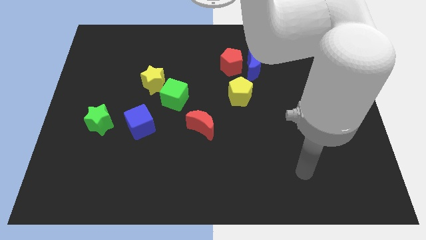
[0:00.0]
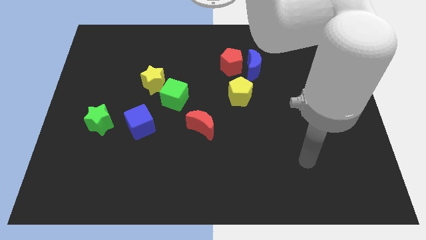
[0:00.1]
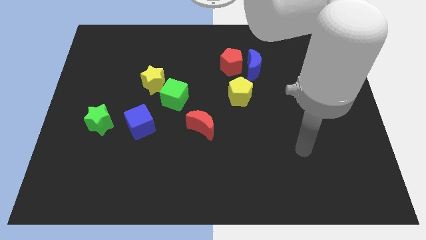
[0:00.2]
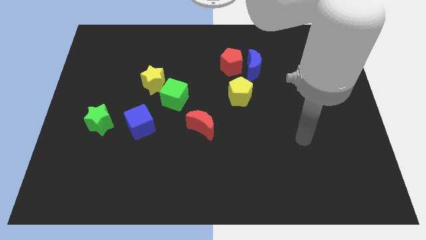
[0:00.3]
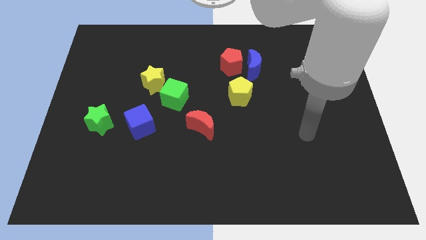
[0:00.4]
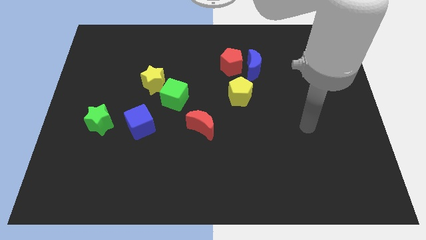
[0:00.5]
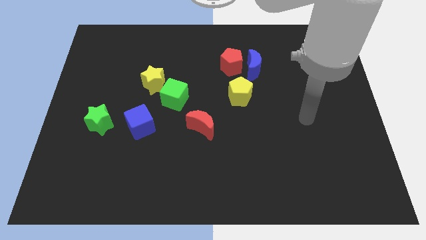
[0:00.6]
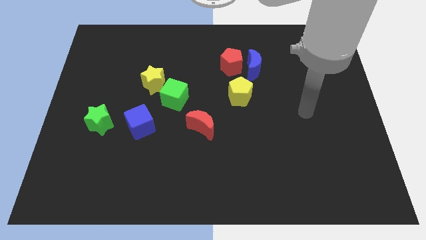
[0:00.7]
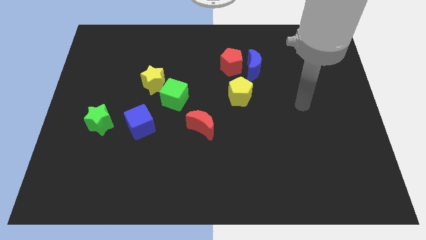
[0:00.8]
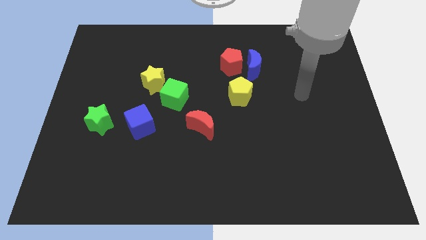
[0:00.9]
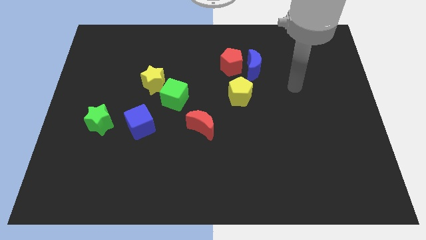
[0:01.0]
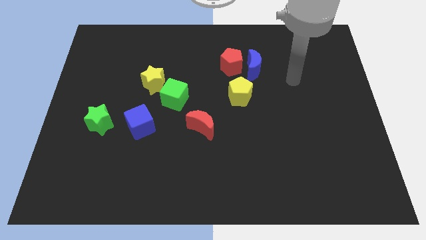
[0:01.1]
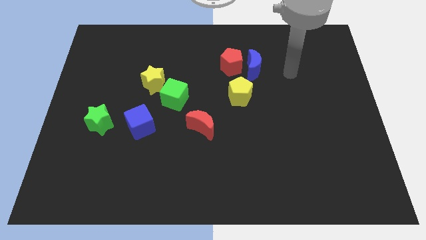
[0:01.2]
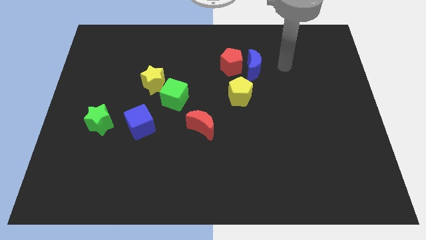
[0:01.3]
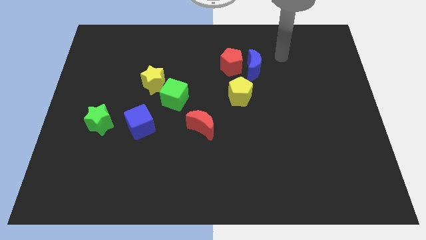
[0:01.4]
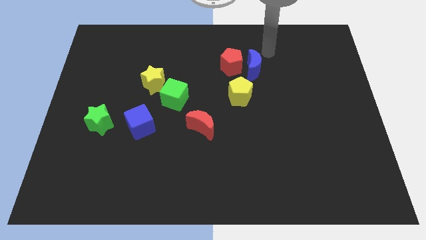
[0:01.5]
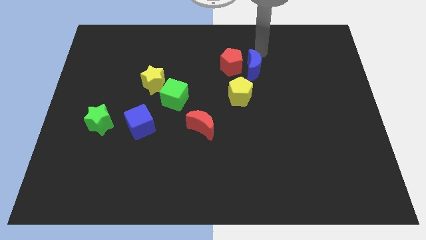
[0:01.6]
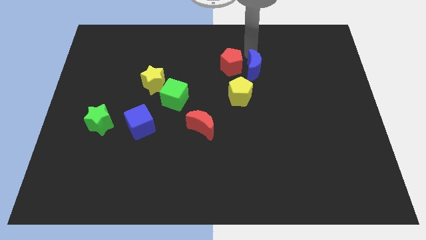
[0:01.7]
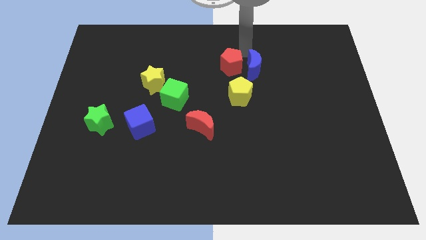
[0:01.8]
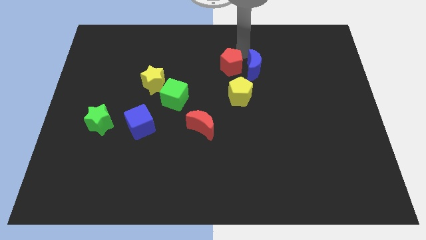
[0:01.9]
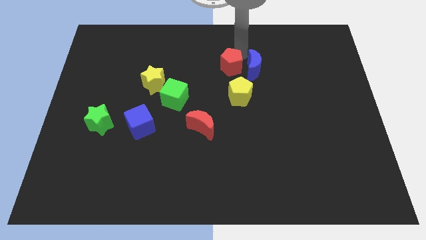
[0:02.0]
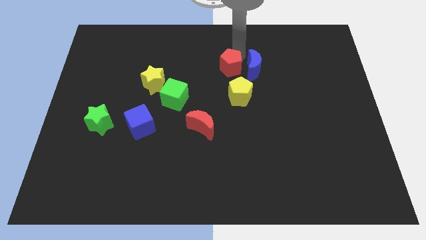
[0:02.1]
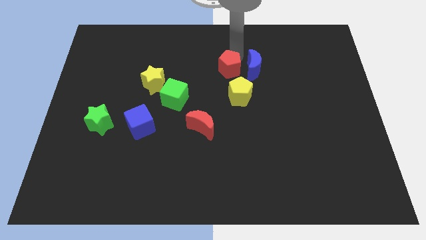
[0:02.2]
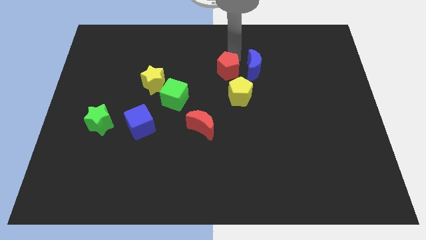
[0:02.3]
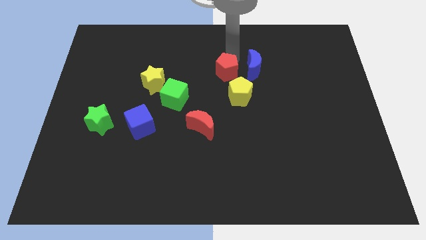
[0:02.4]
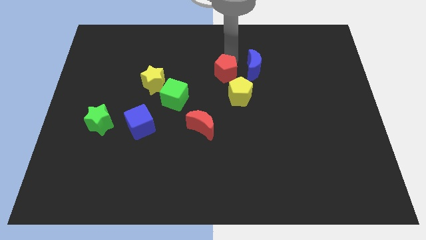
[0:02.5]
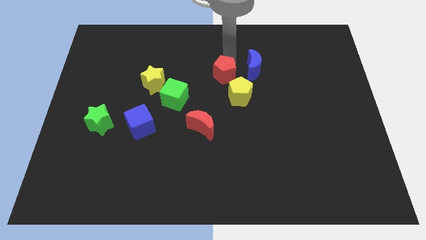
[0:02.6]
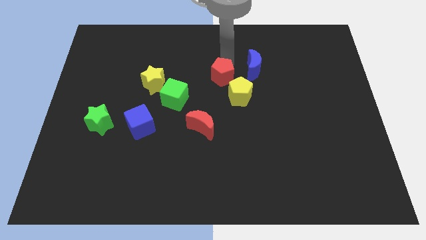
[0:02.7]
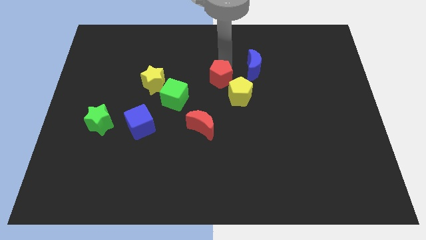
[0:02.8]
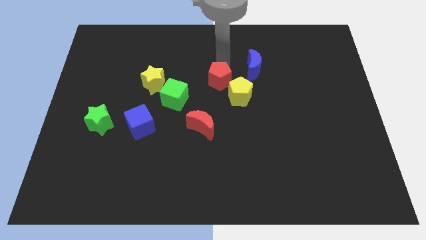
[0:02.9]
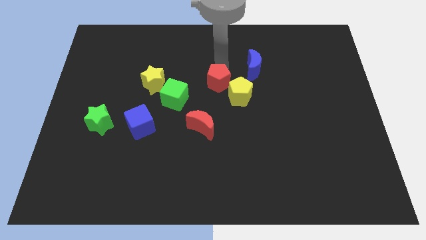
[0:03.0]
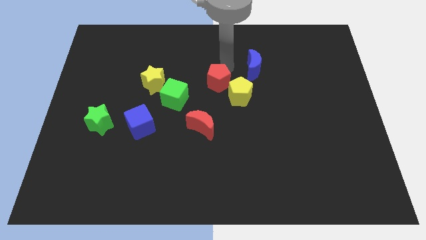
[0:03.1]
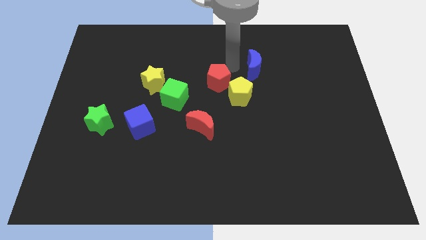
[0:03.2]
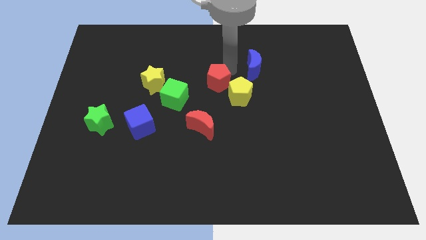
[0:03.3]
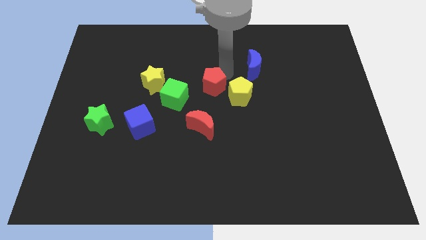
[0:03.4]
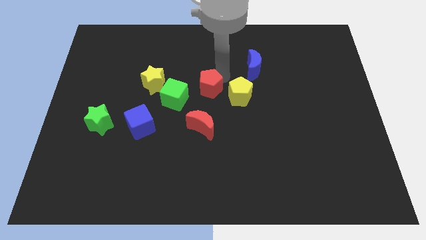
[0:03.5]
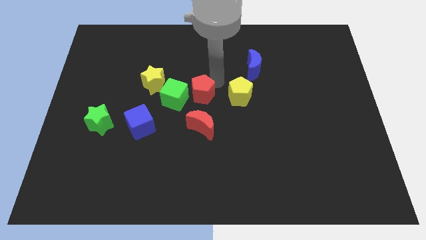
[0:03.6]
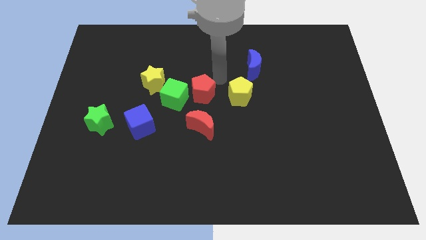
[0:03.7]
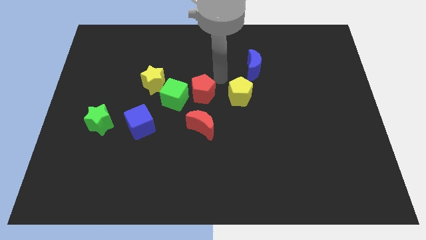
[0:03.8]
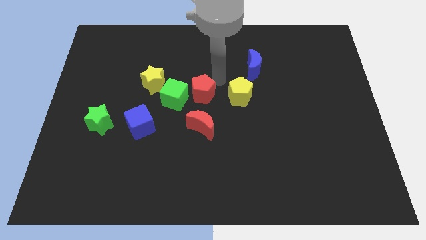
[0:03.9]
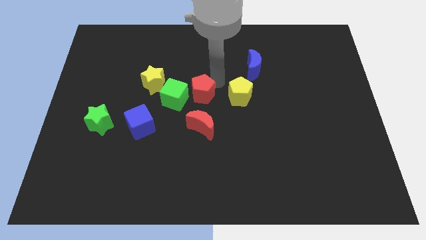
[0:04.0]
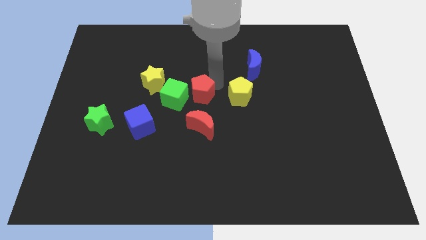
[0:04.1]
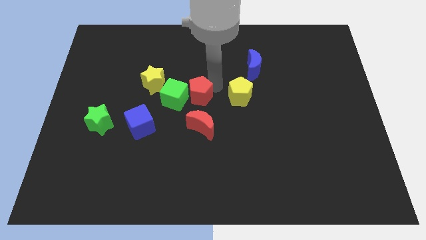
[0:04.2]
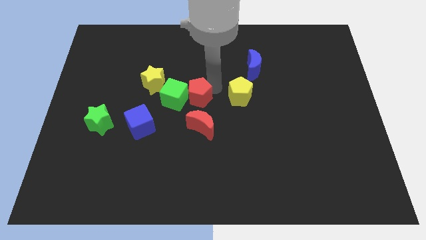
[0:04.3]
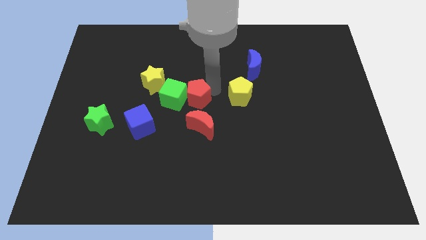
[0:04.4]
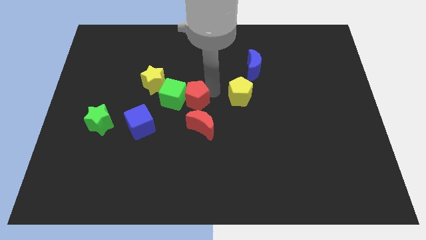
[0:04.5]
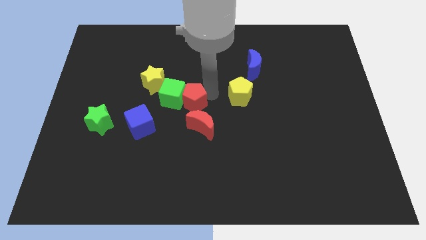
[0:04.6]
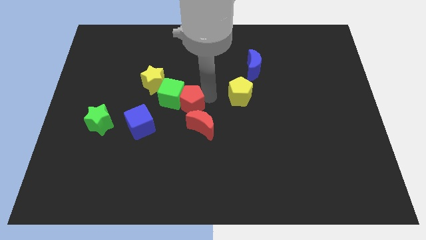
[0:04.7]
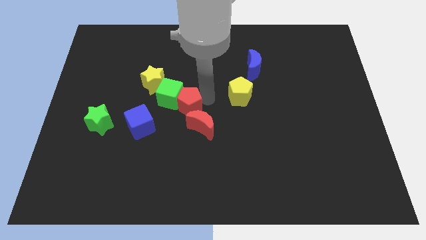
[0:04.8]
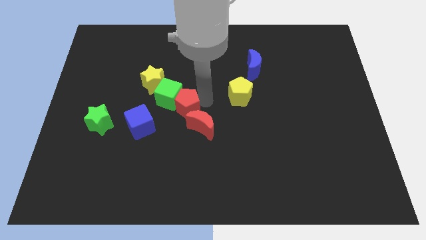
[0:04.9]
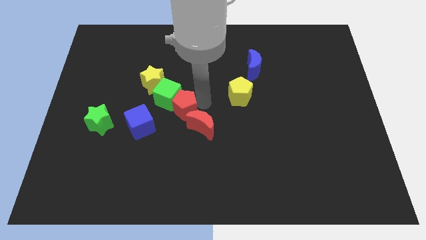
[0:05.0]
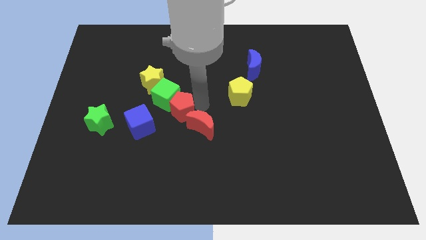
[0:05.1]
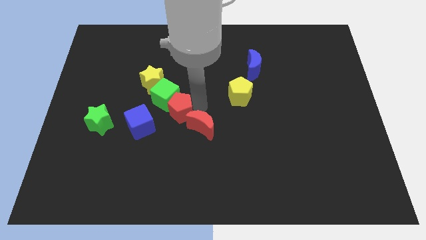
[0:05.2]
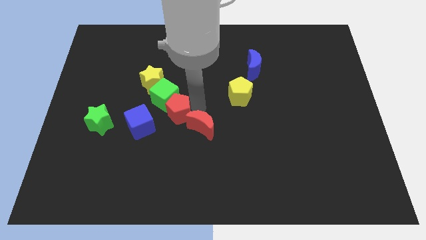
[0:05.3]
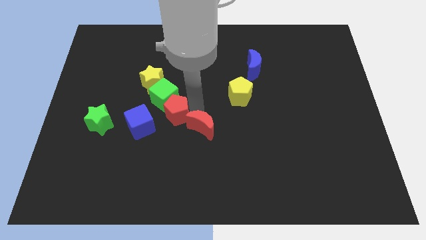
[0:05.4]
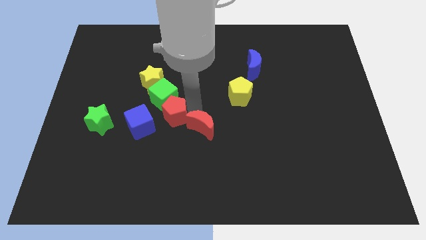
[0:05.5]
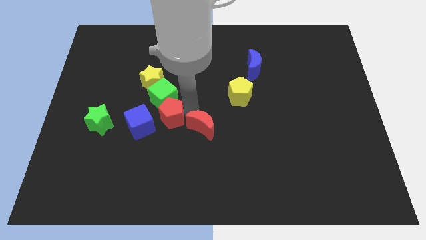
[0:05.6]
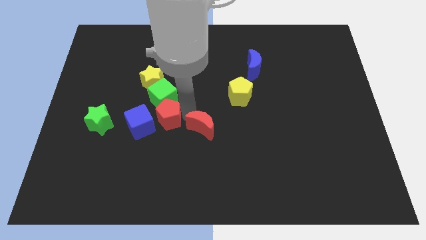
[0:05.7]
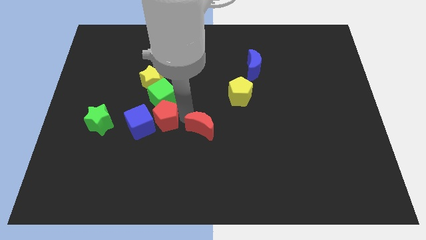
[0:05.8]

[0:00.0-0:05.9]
slide the red pentagon close to the blue cube

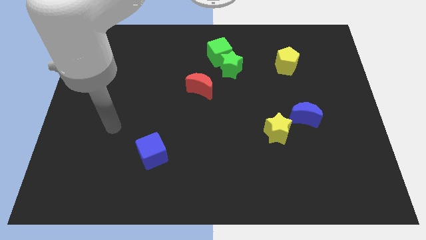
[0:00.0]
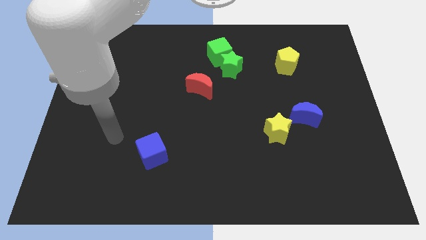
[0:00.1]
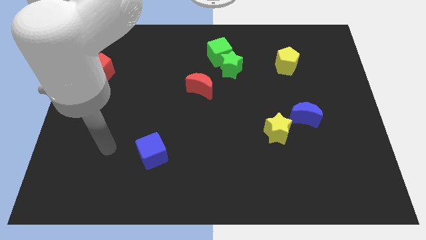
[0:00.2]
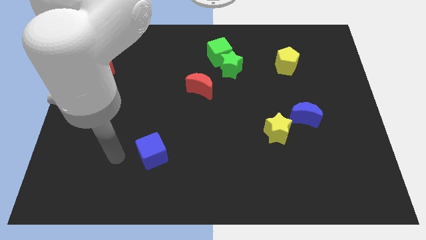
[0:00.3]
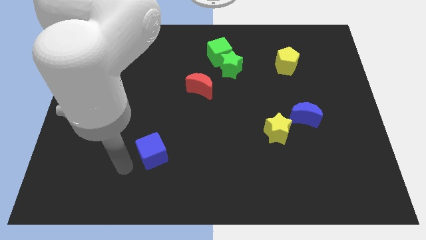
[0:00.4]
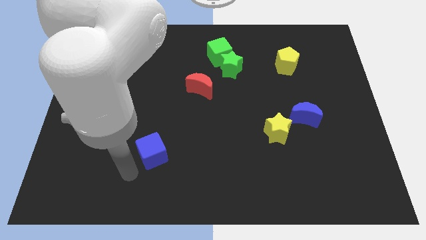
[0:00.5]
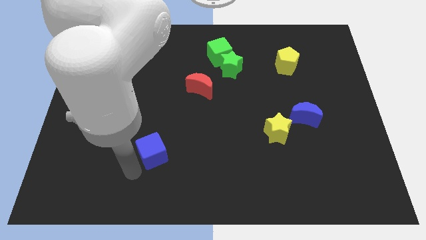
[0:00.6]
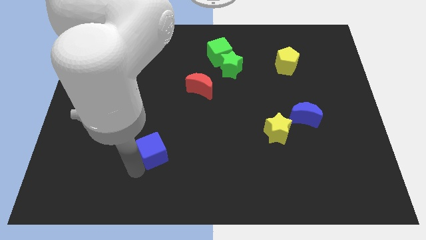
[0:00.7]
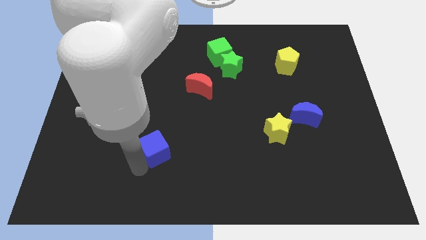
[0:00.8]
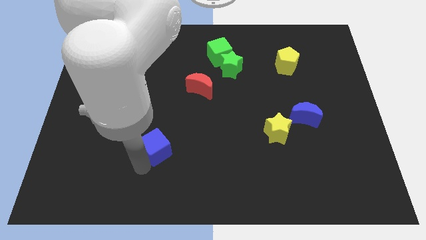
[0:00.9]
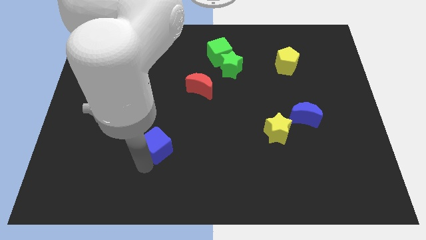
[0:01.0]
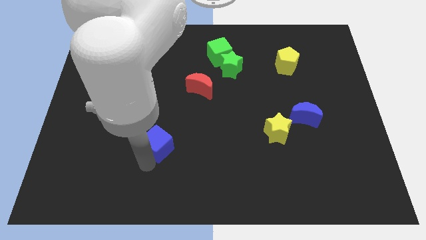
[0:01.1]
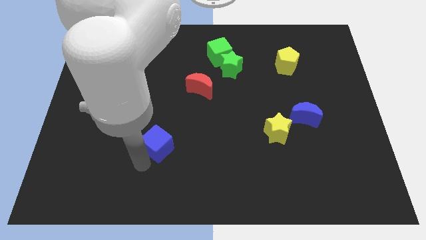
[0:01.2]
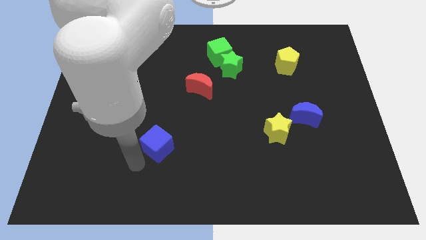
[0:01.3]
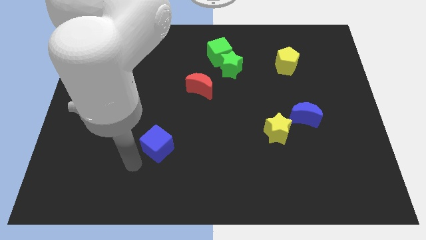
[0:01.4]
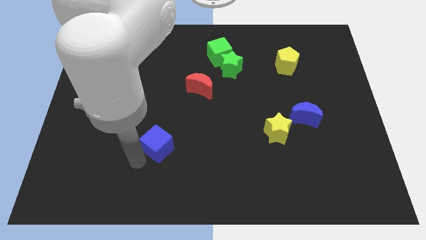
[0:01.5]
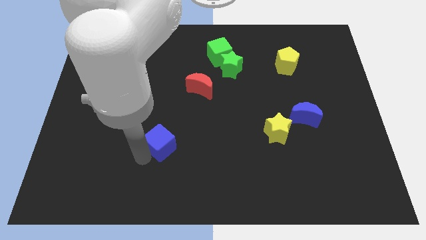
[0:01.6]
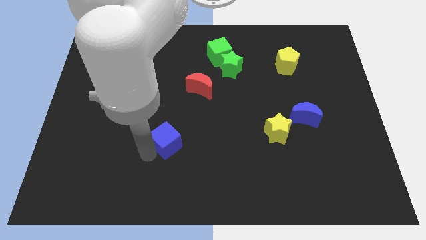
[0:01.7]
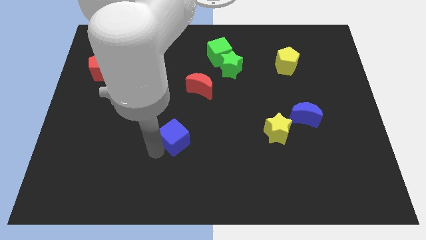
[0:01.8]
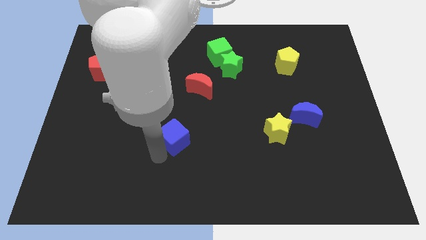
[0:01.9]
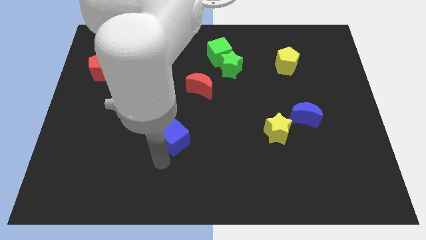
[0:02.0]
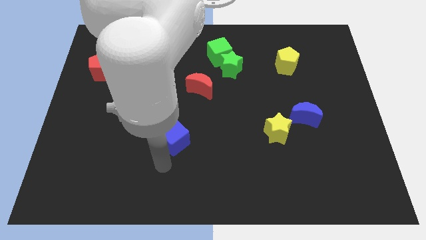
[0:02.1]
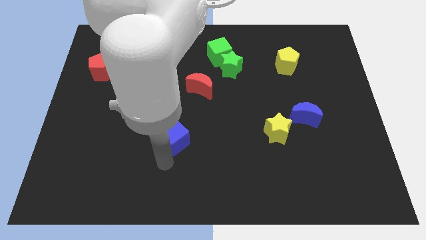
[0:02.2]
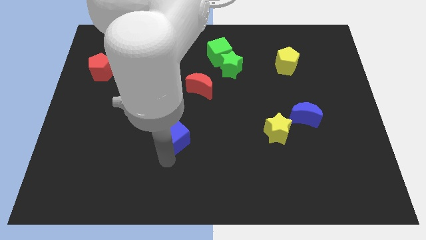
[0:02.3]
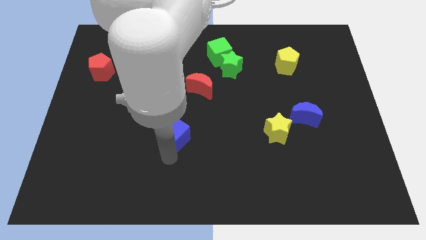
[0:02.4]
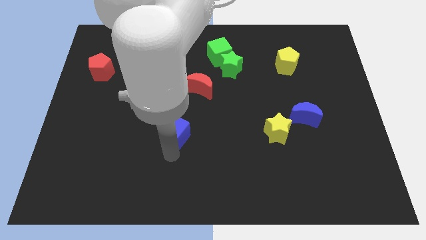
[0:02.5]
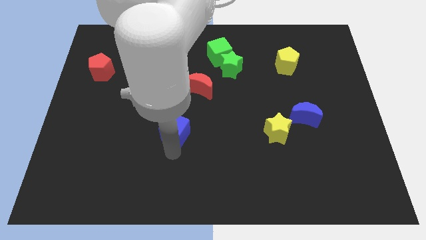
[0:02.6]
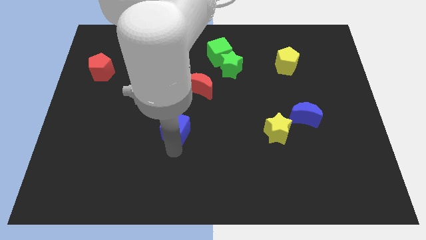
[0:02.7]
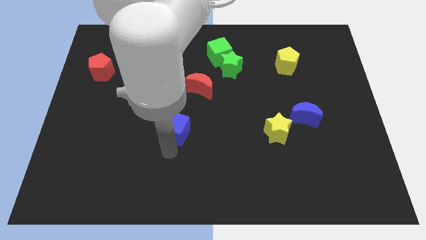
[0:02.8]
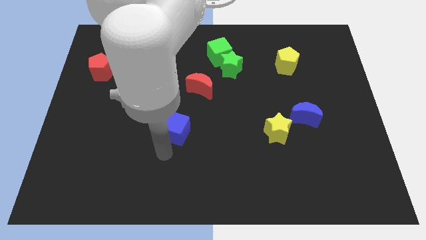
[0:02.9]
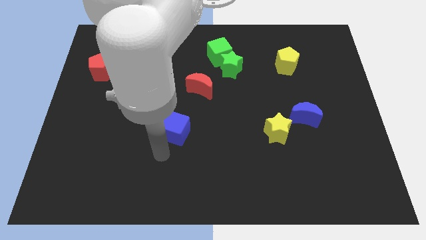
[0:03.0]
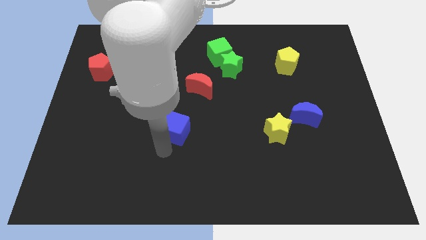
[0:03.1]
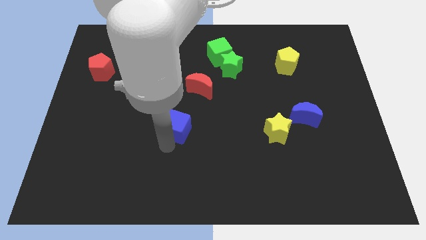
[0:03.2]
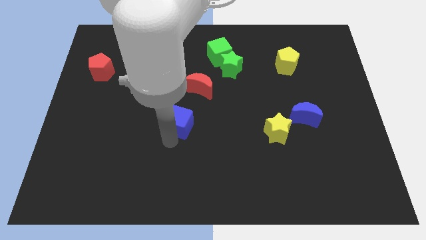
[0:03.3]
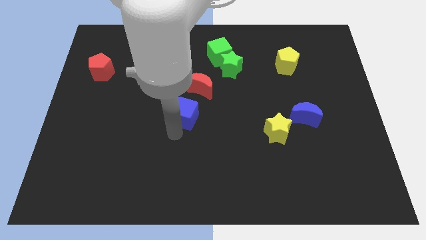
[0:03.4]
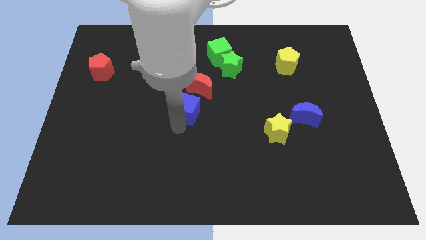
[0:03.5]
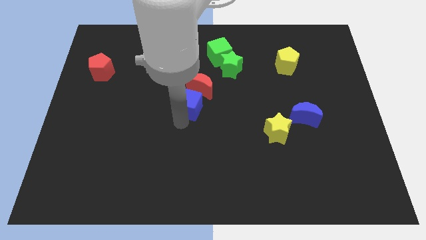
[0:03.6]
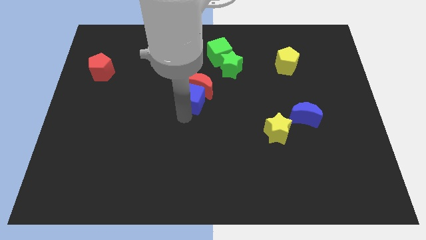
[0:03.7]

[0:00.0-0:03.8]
put the blue cube next to the red moon
